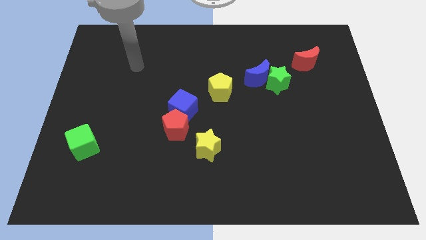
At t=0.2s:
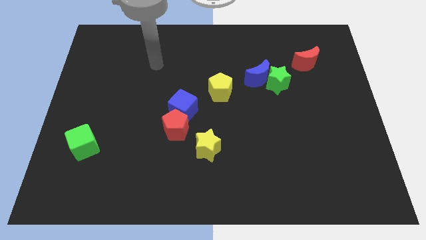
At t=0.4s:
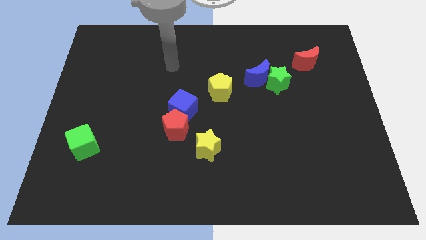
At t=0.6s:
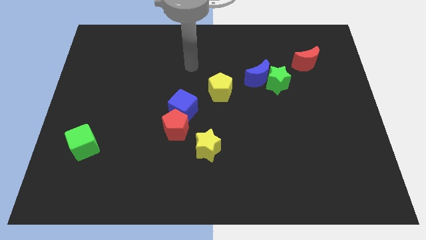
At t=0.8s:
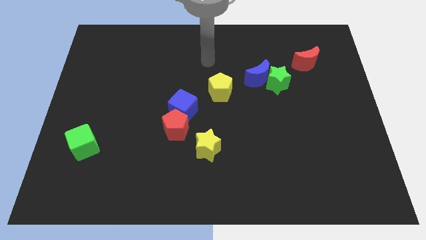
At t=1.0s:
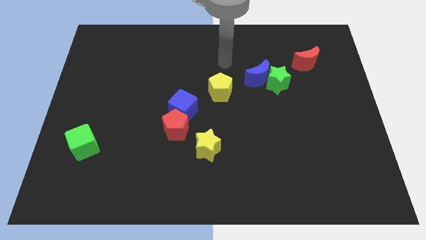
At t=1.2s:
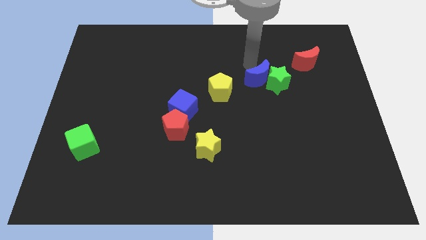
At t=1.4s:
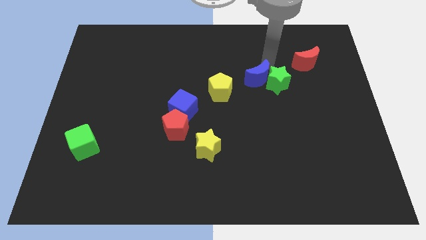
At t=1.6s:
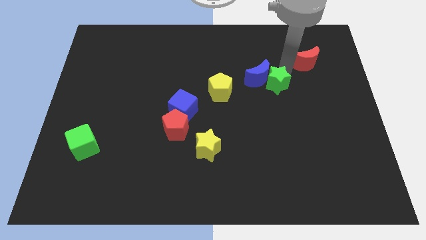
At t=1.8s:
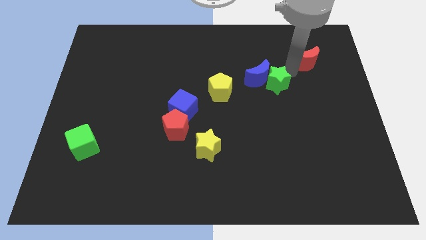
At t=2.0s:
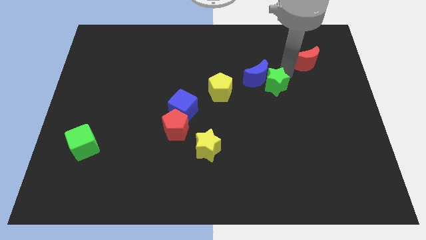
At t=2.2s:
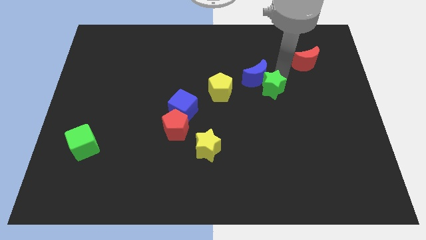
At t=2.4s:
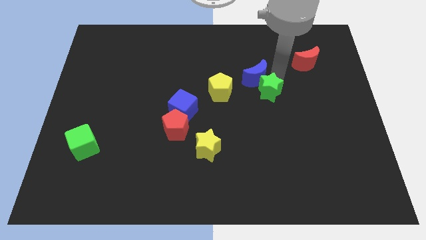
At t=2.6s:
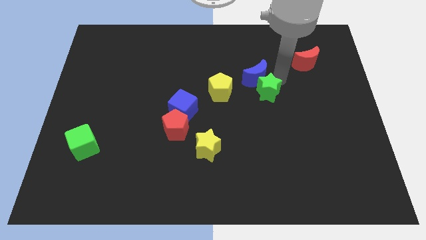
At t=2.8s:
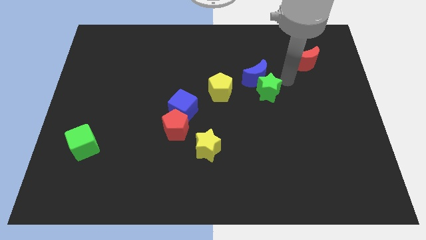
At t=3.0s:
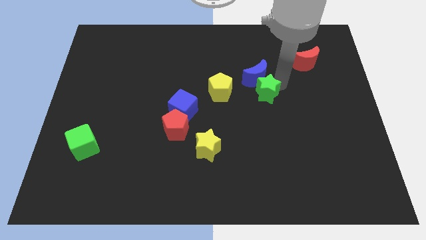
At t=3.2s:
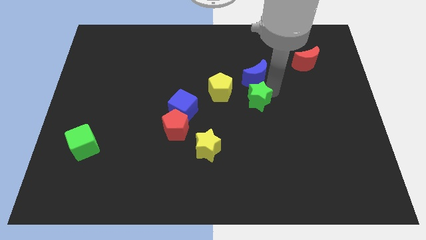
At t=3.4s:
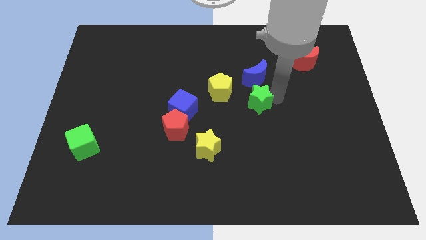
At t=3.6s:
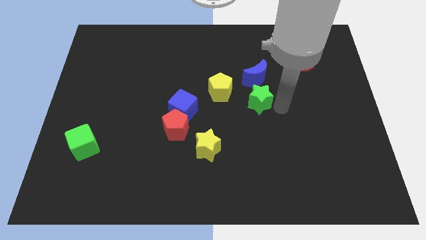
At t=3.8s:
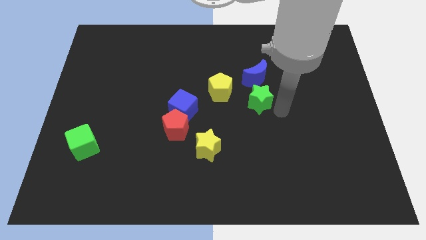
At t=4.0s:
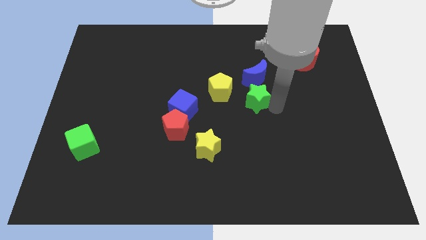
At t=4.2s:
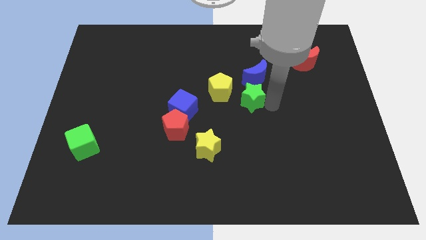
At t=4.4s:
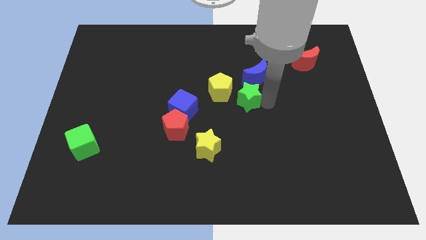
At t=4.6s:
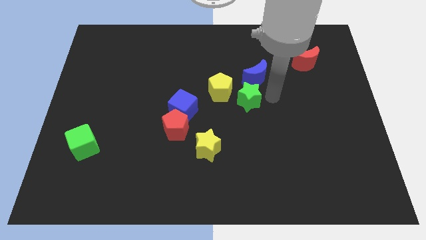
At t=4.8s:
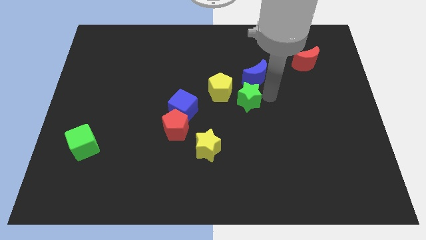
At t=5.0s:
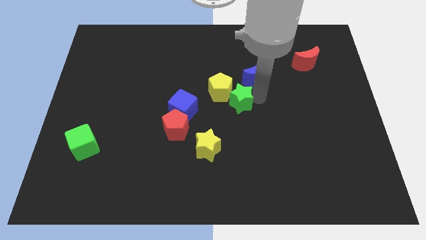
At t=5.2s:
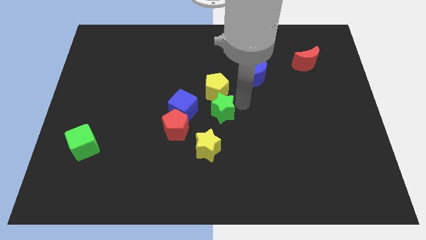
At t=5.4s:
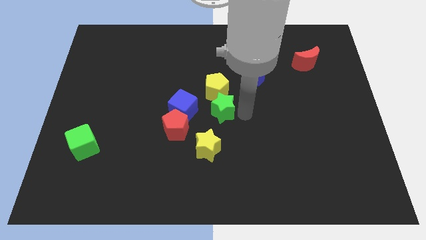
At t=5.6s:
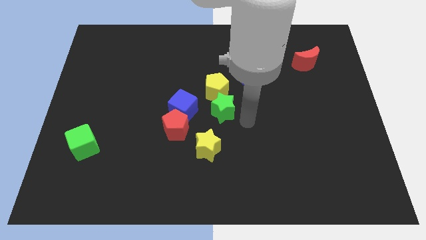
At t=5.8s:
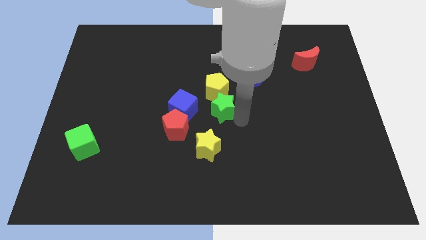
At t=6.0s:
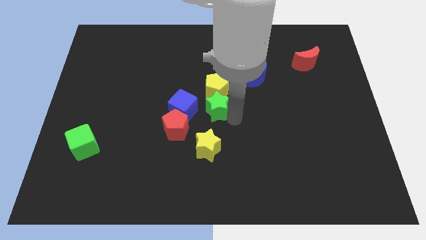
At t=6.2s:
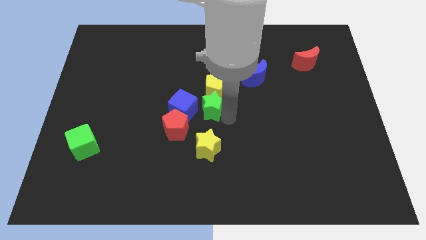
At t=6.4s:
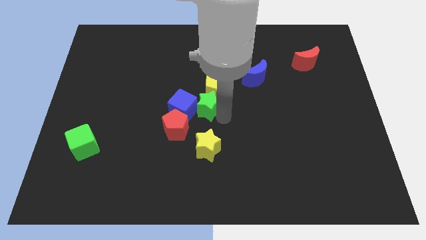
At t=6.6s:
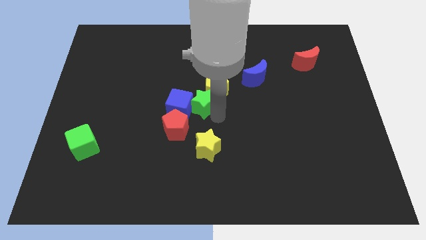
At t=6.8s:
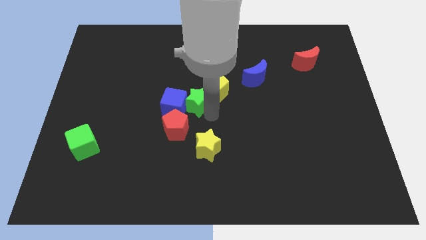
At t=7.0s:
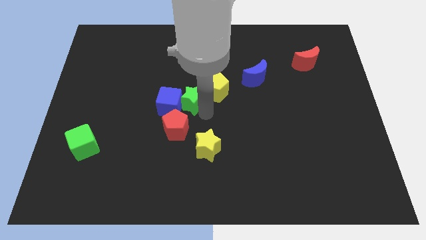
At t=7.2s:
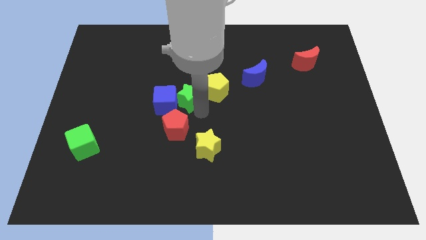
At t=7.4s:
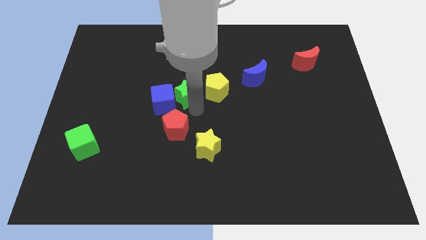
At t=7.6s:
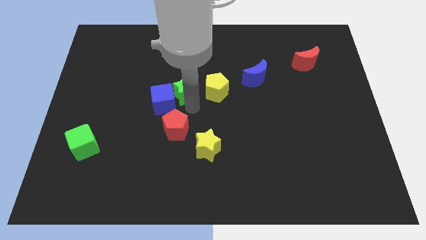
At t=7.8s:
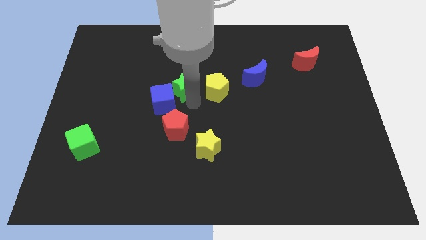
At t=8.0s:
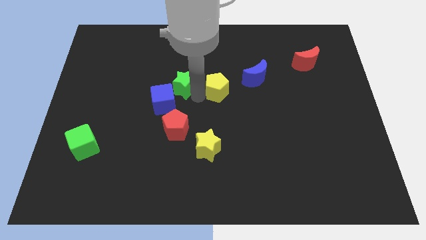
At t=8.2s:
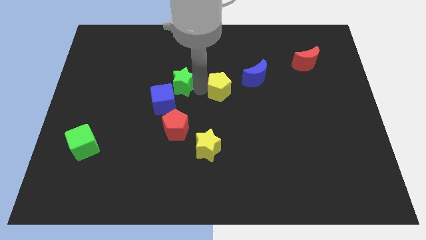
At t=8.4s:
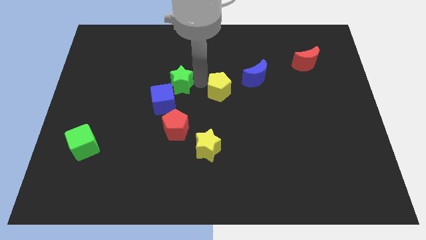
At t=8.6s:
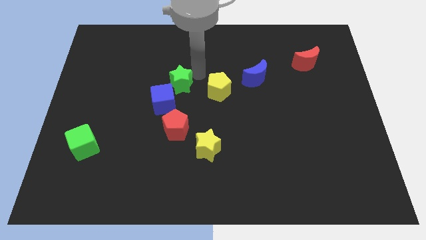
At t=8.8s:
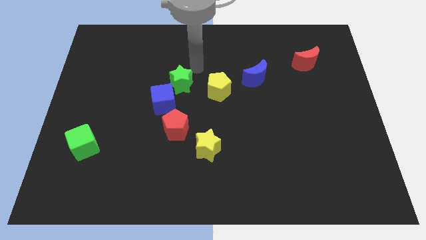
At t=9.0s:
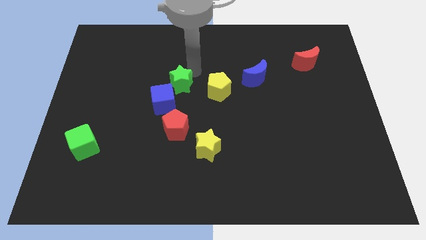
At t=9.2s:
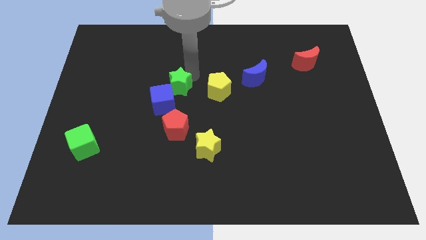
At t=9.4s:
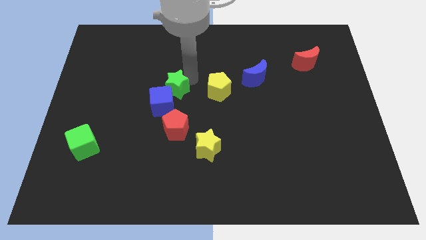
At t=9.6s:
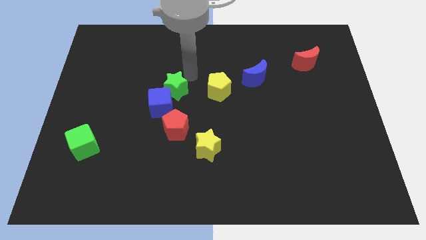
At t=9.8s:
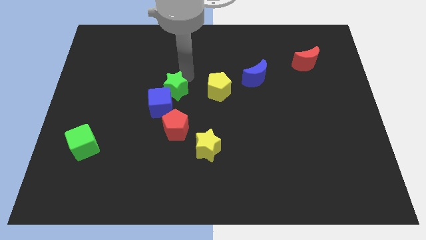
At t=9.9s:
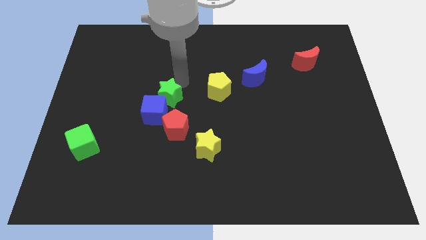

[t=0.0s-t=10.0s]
push the green star diagonally up and to the left of the red pentagon

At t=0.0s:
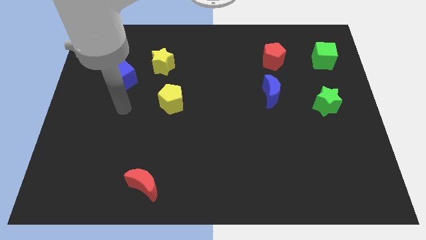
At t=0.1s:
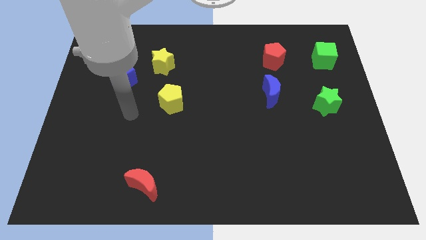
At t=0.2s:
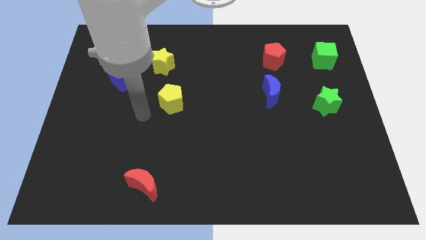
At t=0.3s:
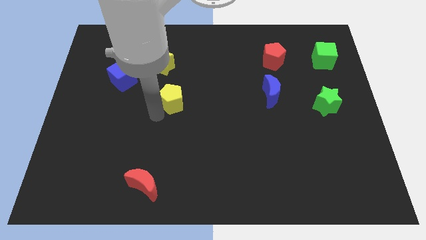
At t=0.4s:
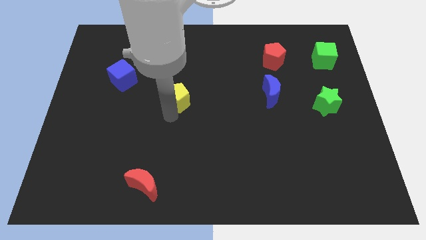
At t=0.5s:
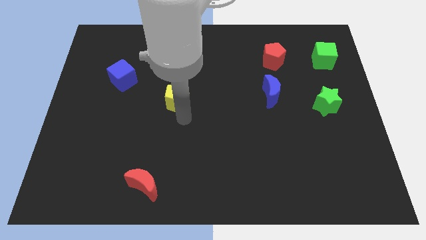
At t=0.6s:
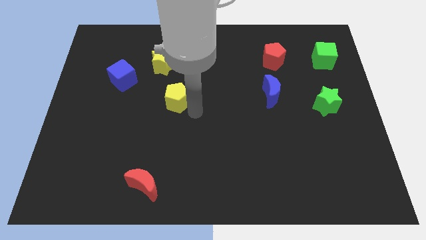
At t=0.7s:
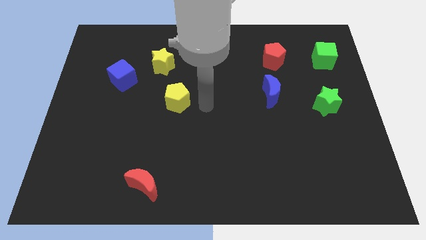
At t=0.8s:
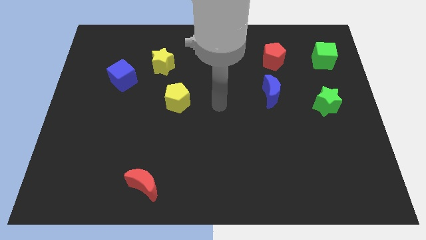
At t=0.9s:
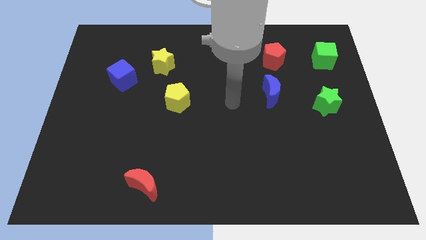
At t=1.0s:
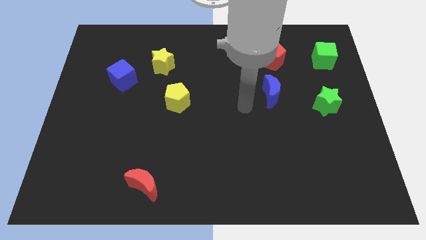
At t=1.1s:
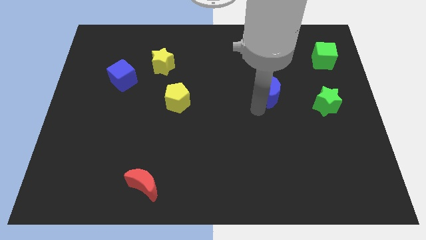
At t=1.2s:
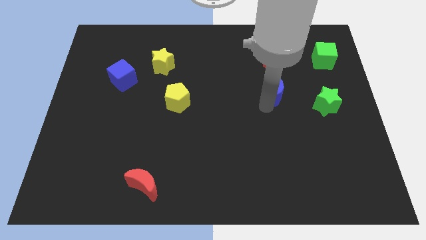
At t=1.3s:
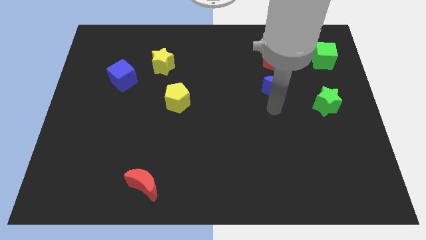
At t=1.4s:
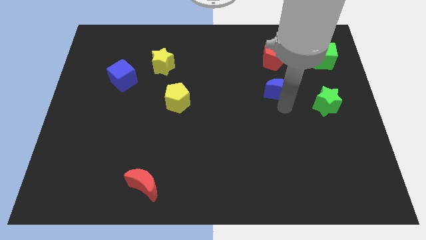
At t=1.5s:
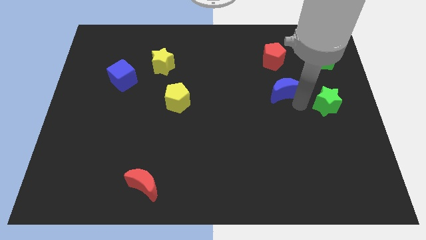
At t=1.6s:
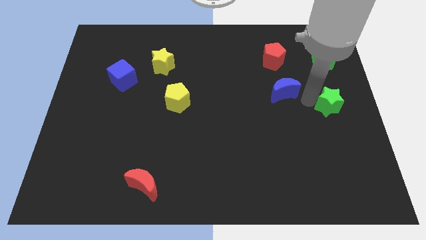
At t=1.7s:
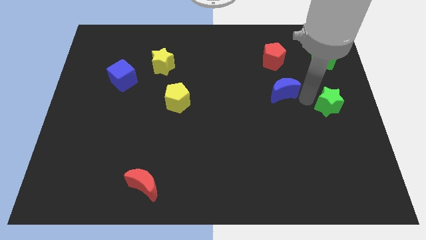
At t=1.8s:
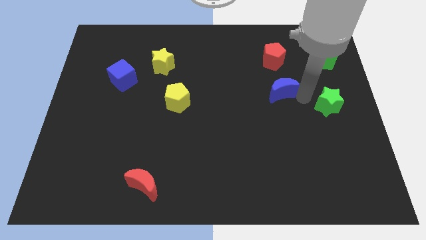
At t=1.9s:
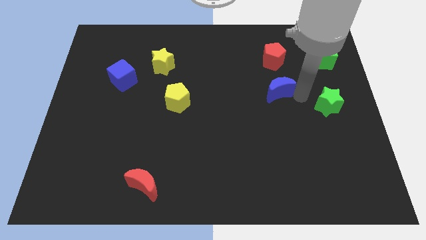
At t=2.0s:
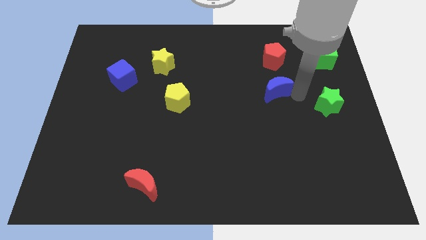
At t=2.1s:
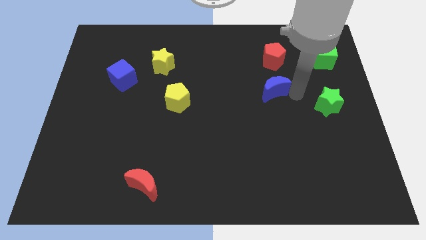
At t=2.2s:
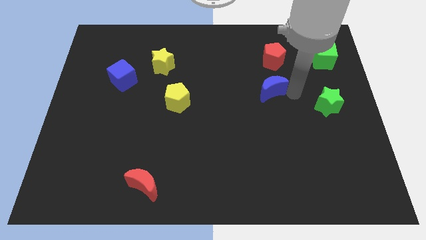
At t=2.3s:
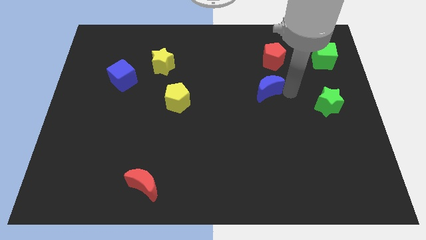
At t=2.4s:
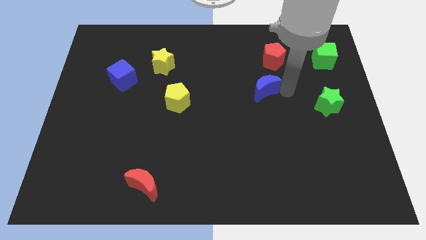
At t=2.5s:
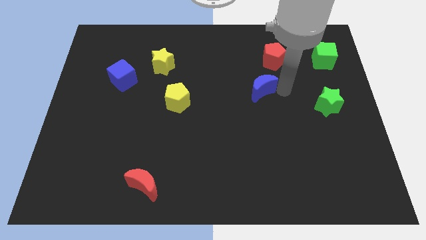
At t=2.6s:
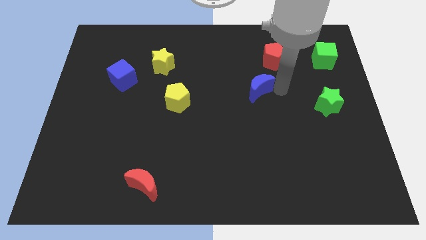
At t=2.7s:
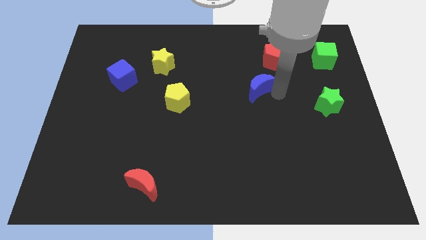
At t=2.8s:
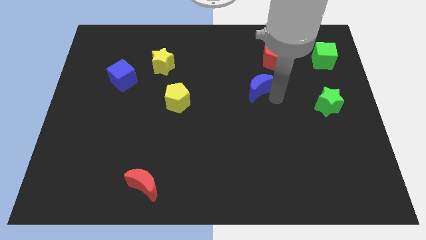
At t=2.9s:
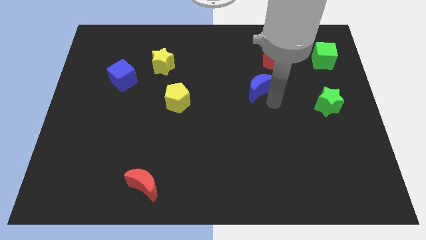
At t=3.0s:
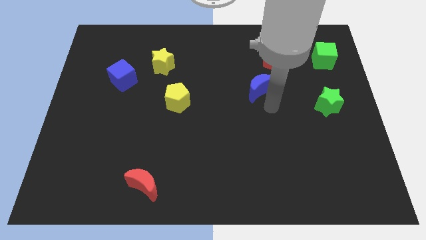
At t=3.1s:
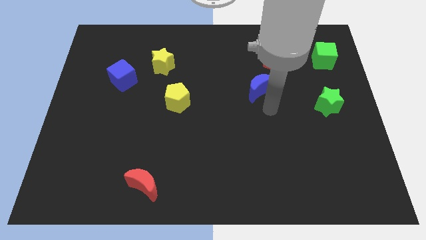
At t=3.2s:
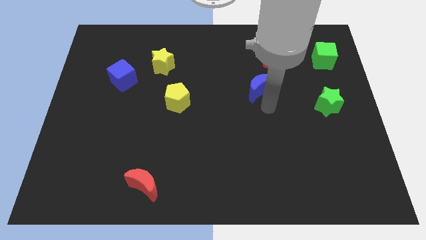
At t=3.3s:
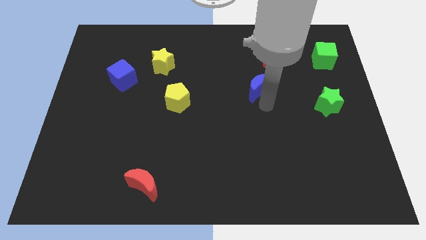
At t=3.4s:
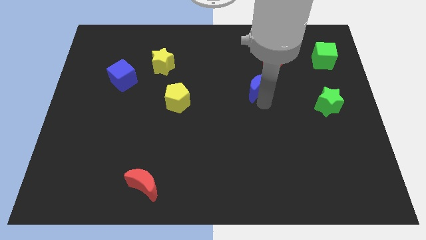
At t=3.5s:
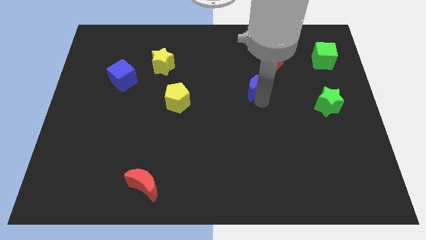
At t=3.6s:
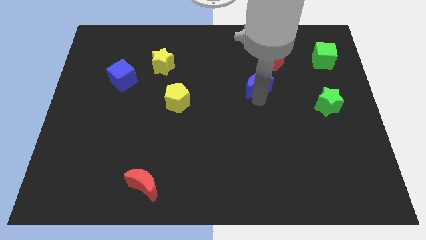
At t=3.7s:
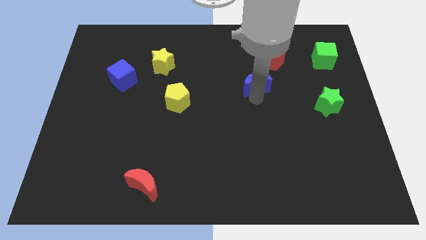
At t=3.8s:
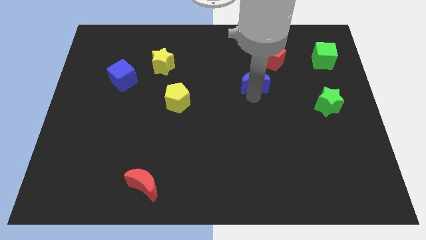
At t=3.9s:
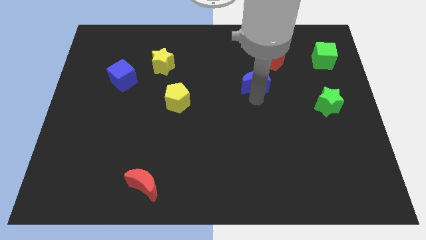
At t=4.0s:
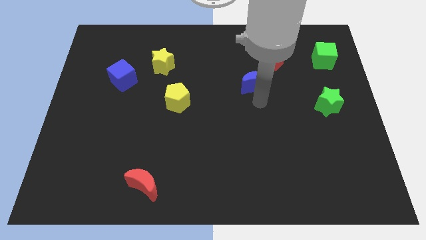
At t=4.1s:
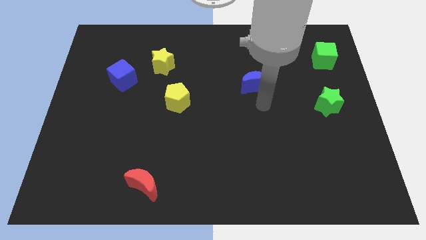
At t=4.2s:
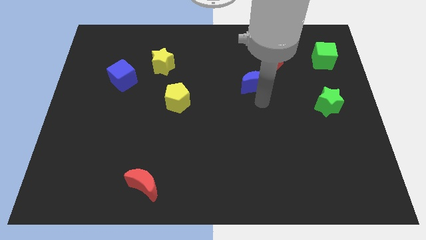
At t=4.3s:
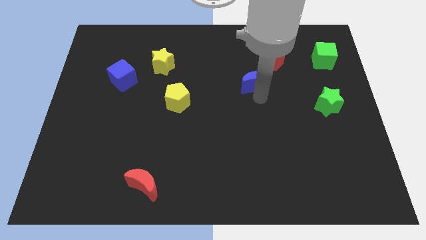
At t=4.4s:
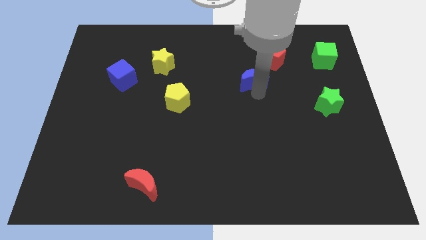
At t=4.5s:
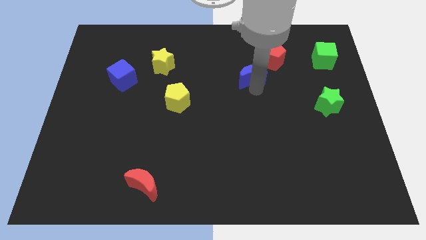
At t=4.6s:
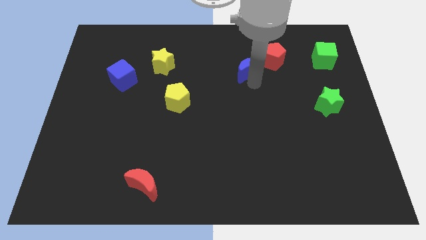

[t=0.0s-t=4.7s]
push the blue moon to the left side of the red pentagon
